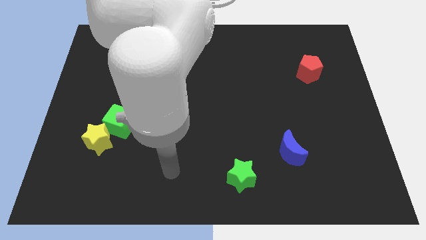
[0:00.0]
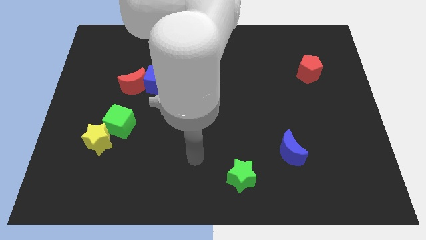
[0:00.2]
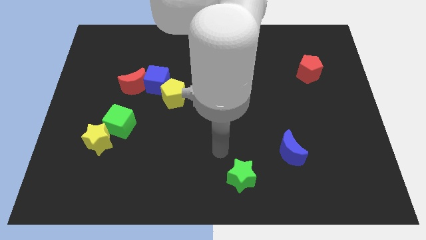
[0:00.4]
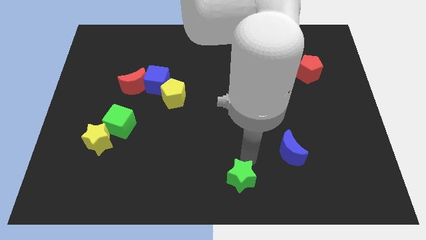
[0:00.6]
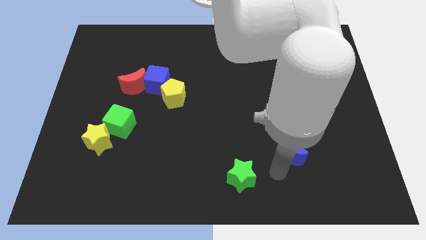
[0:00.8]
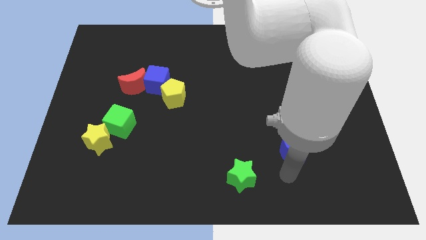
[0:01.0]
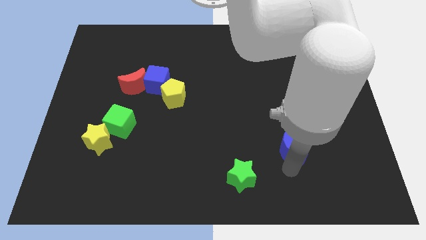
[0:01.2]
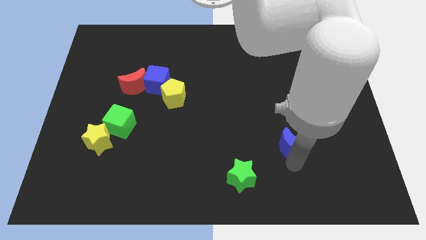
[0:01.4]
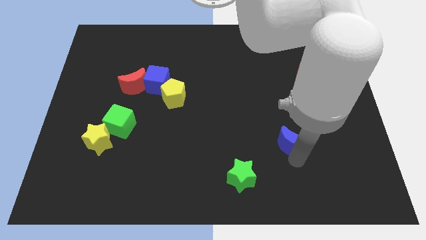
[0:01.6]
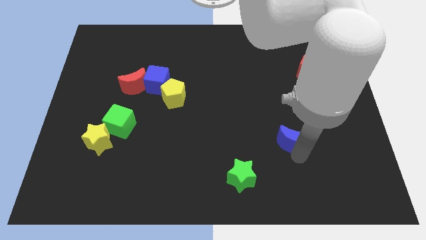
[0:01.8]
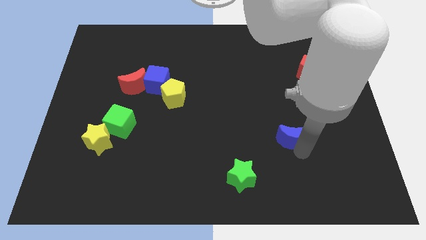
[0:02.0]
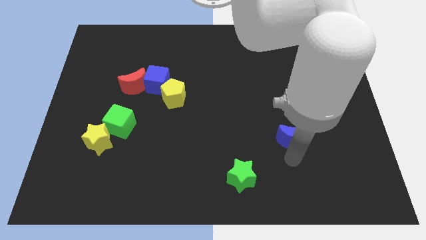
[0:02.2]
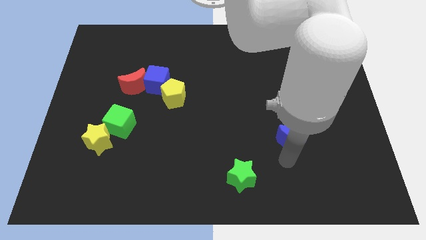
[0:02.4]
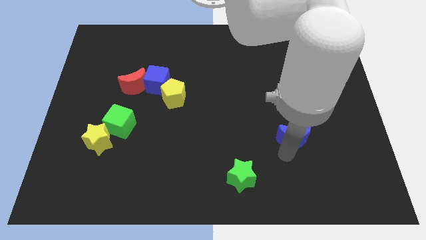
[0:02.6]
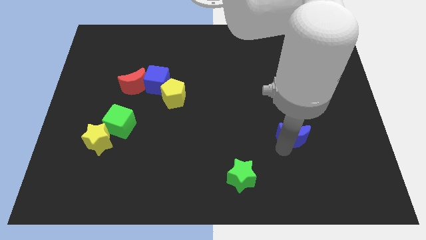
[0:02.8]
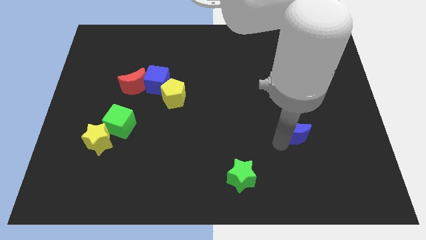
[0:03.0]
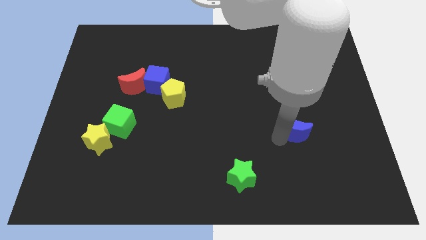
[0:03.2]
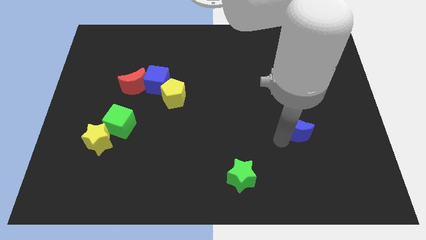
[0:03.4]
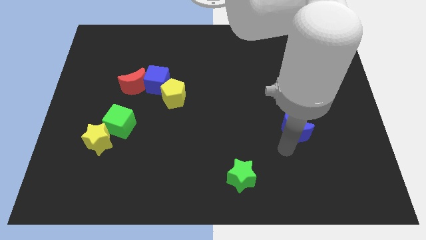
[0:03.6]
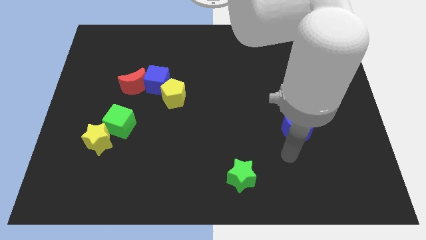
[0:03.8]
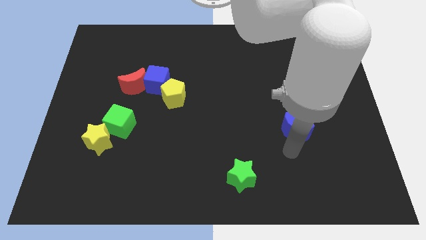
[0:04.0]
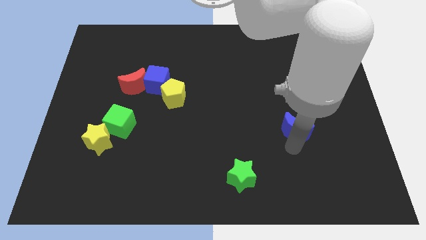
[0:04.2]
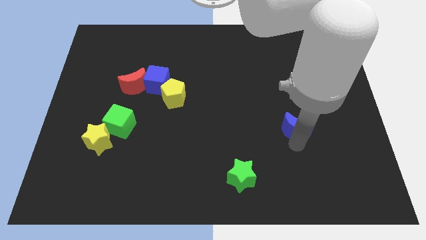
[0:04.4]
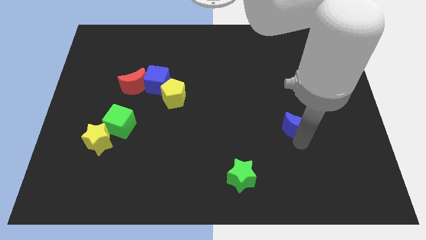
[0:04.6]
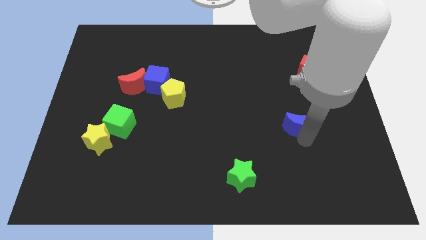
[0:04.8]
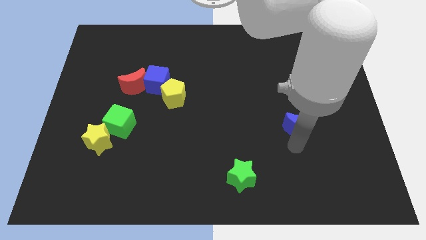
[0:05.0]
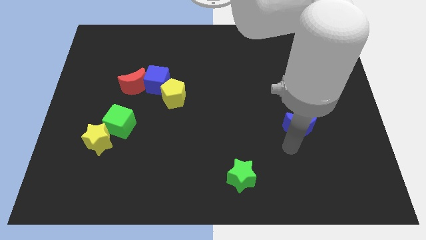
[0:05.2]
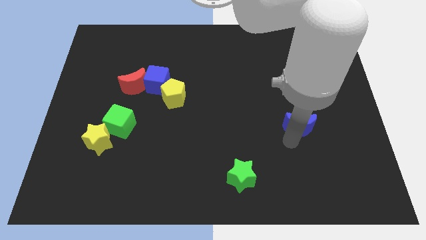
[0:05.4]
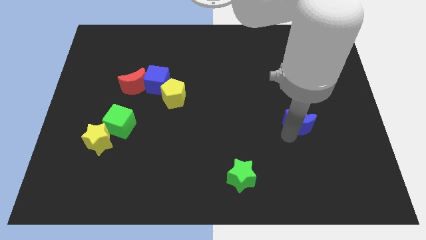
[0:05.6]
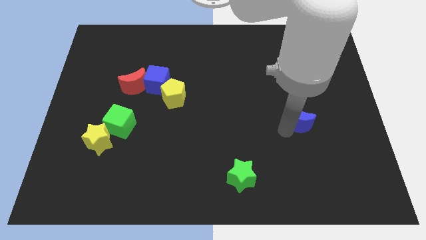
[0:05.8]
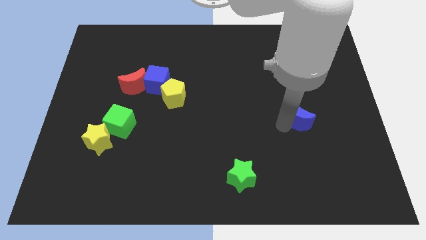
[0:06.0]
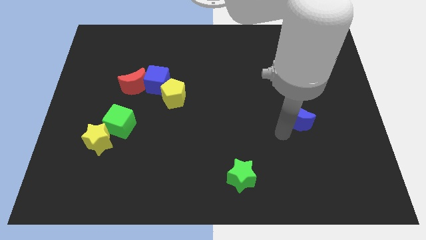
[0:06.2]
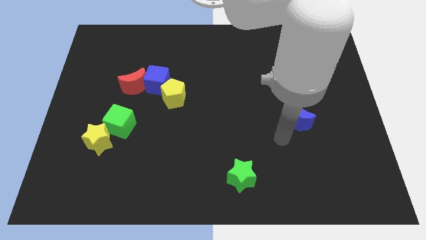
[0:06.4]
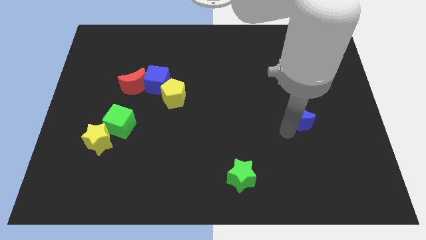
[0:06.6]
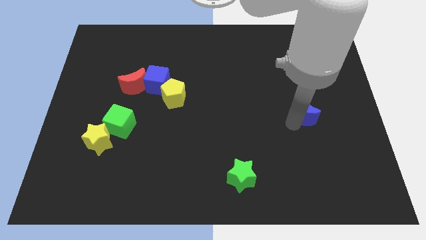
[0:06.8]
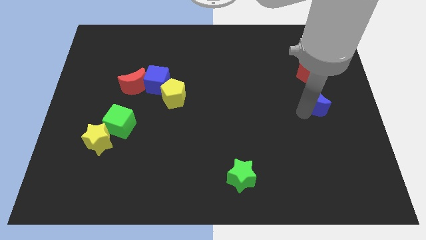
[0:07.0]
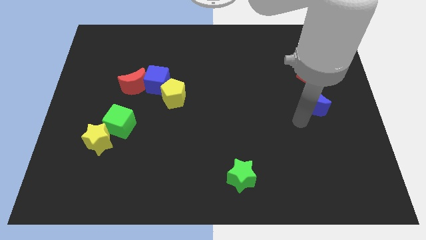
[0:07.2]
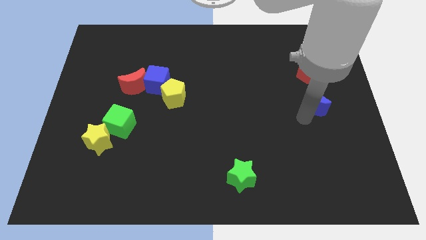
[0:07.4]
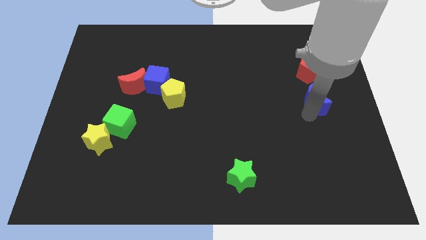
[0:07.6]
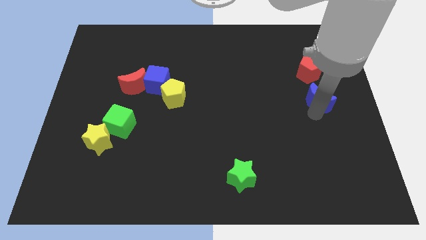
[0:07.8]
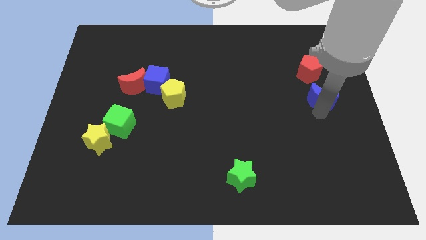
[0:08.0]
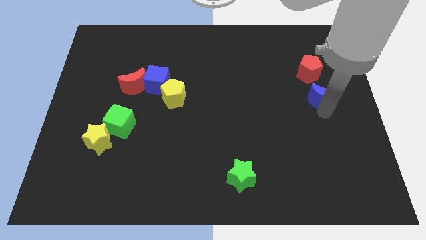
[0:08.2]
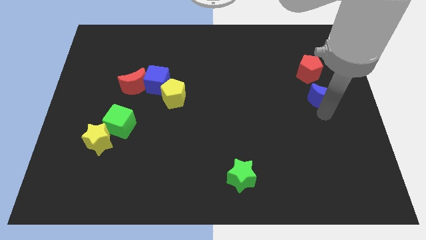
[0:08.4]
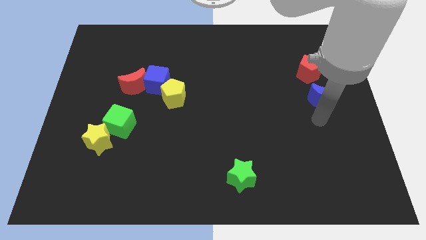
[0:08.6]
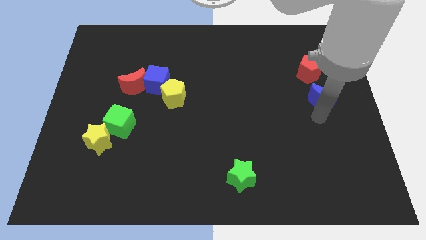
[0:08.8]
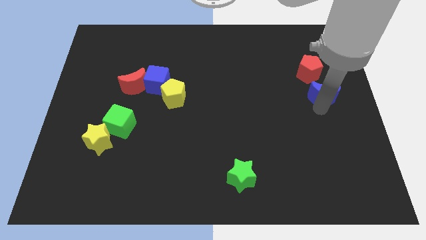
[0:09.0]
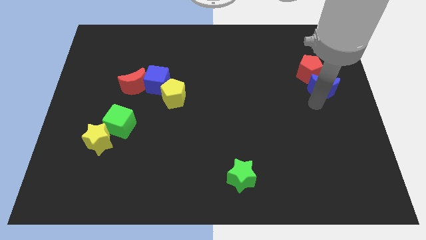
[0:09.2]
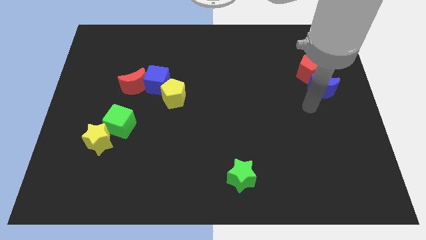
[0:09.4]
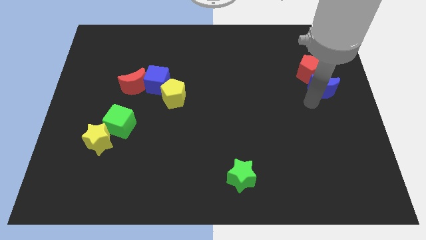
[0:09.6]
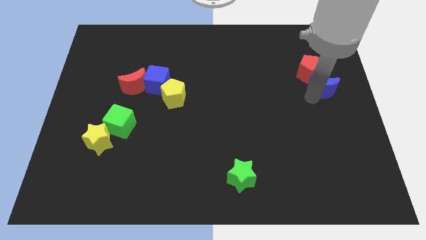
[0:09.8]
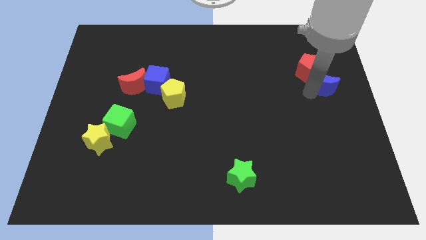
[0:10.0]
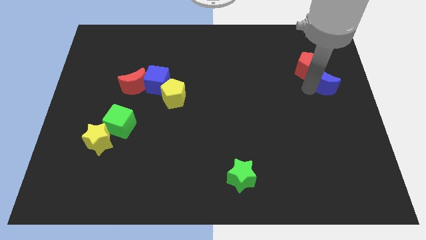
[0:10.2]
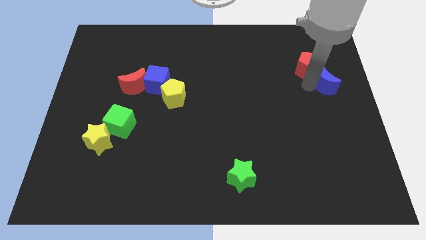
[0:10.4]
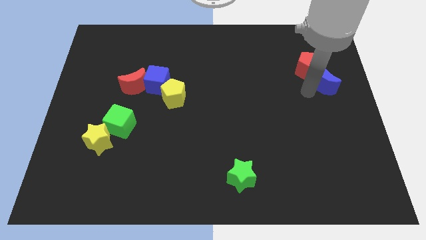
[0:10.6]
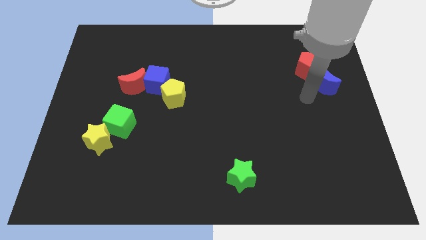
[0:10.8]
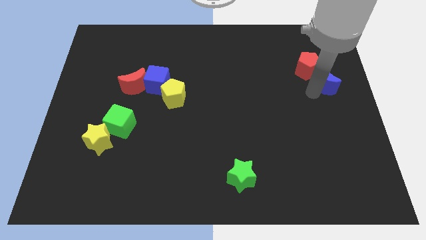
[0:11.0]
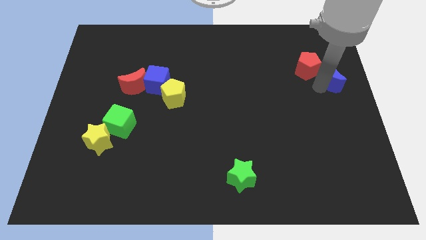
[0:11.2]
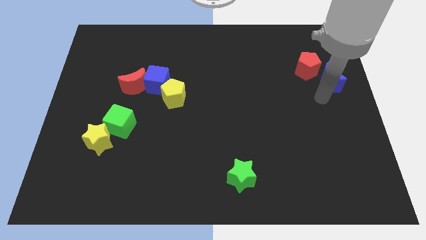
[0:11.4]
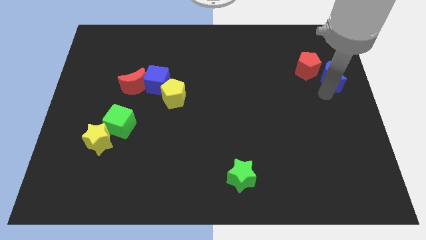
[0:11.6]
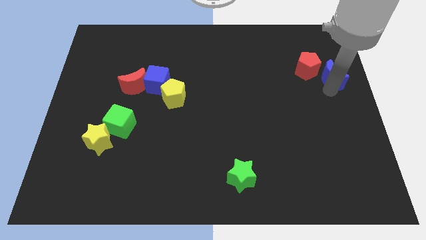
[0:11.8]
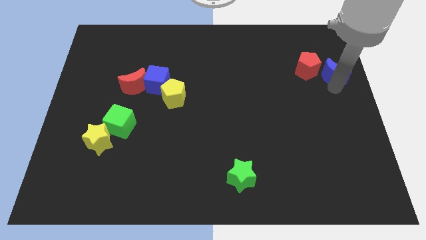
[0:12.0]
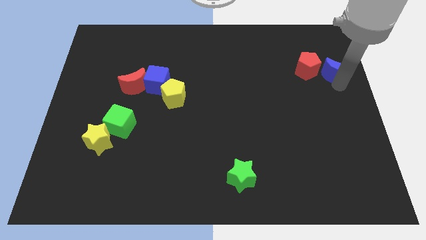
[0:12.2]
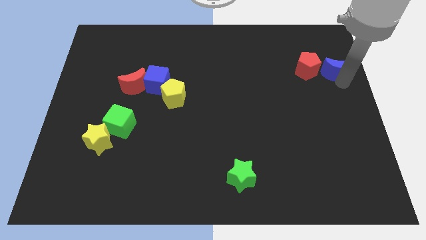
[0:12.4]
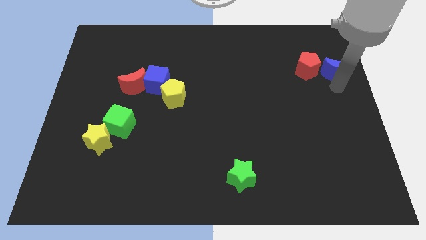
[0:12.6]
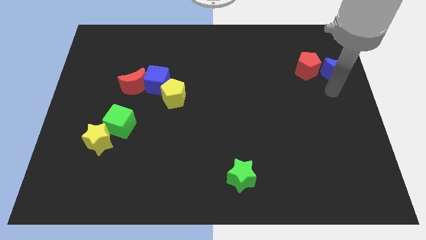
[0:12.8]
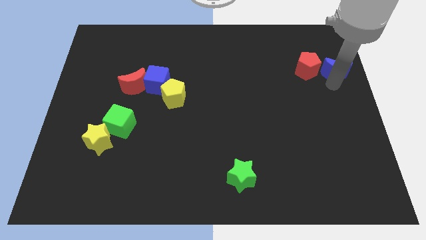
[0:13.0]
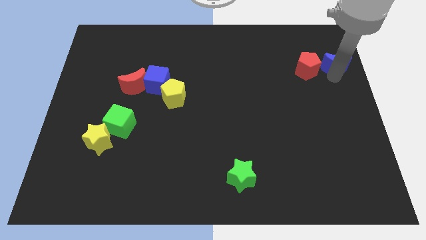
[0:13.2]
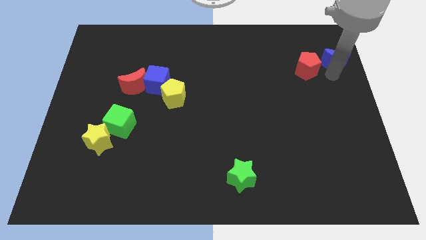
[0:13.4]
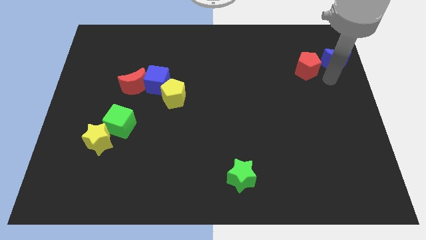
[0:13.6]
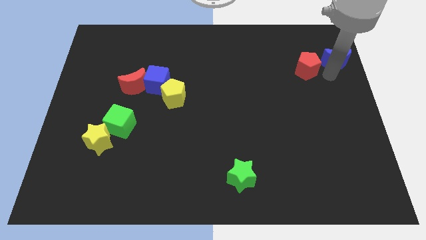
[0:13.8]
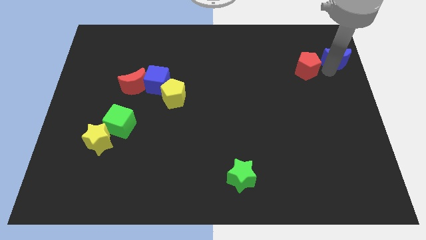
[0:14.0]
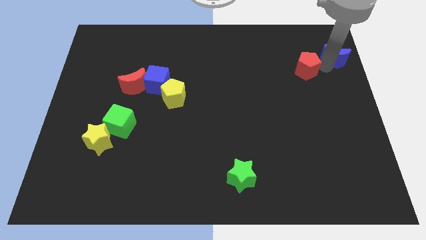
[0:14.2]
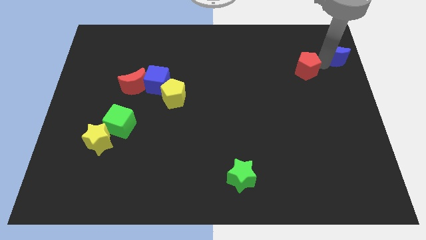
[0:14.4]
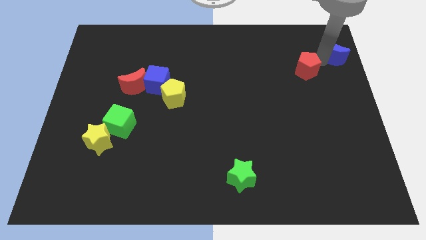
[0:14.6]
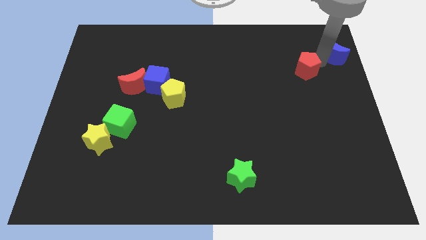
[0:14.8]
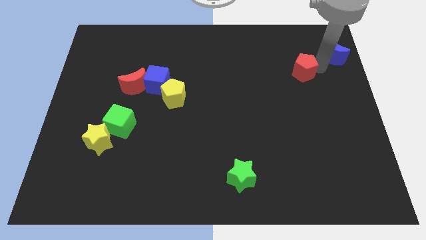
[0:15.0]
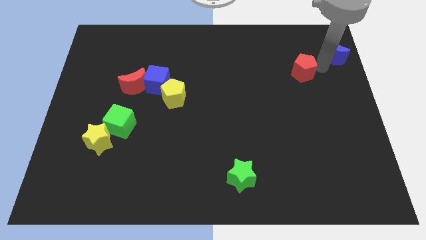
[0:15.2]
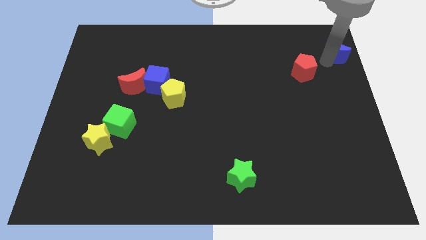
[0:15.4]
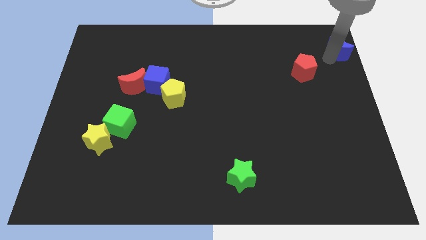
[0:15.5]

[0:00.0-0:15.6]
put the blue moon to the upper right corner
